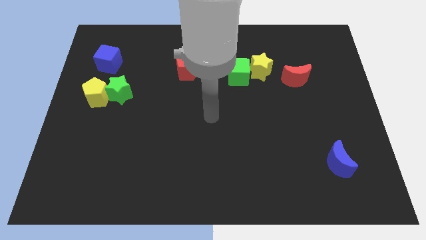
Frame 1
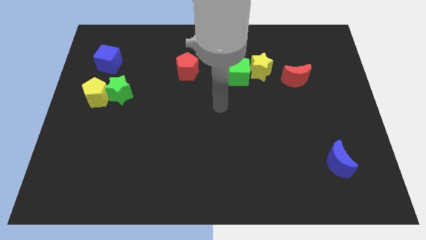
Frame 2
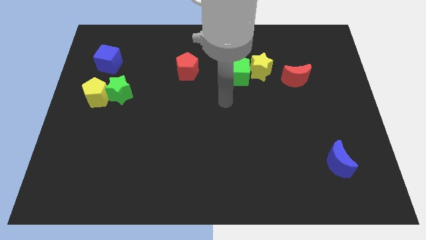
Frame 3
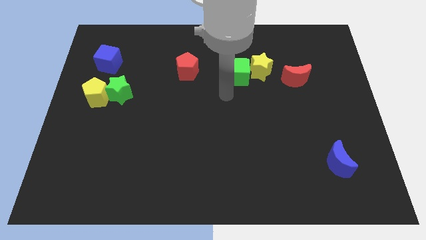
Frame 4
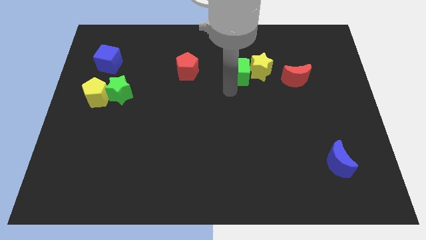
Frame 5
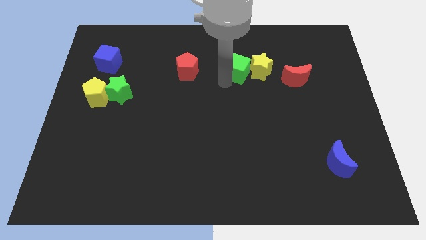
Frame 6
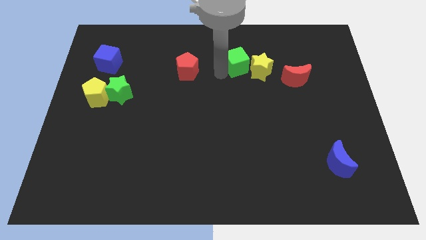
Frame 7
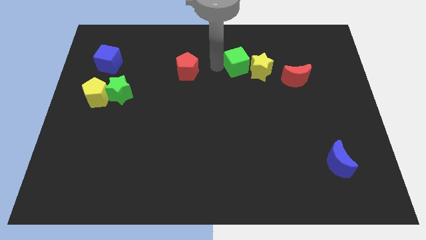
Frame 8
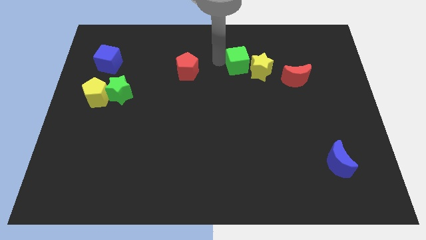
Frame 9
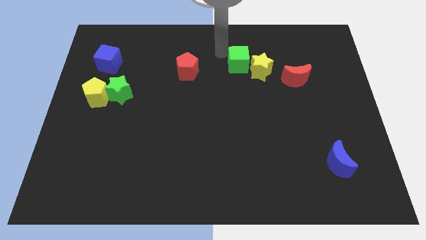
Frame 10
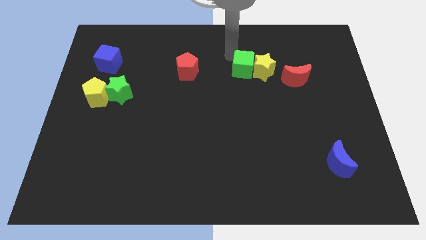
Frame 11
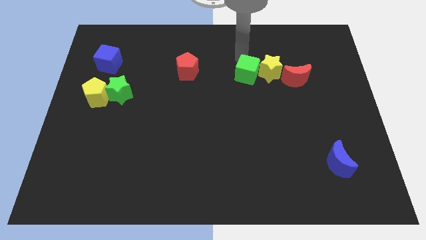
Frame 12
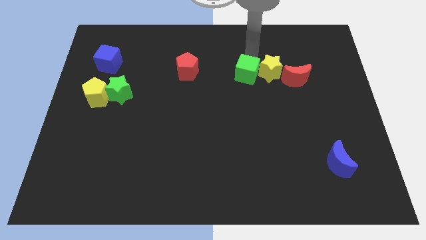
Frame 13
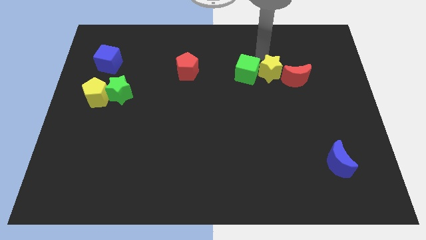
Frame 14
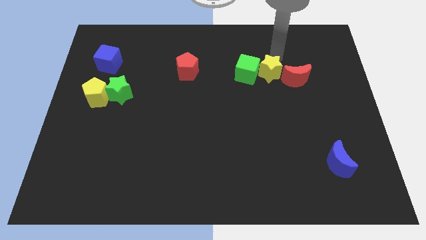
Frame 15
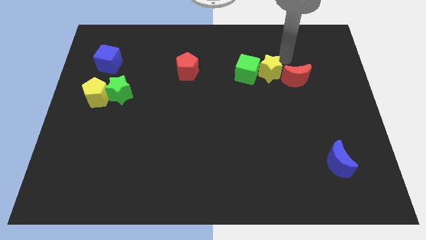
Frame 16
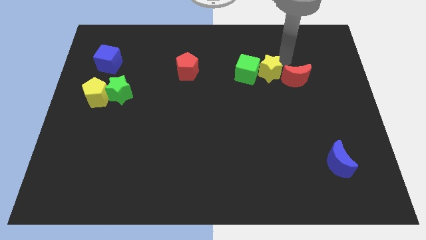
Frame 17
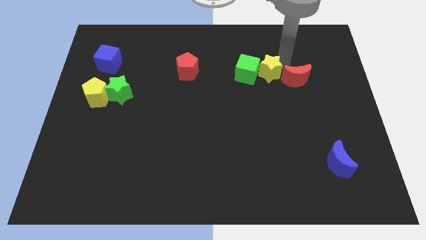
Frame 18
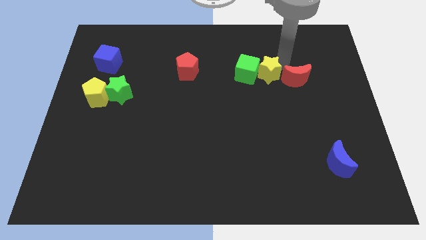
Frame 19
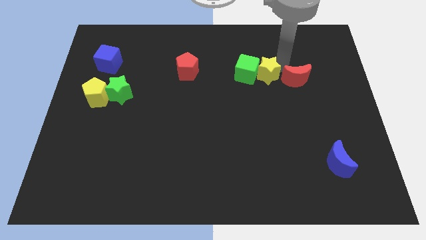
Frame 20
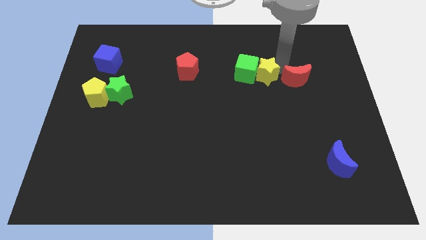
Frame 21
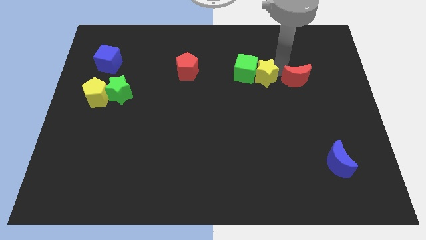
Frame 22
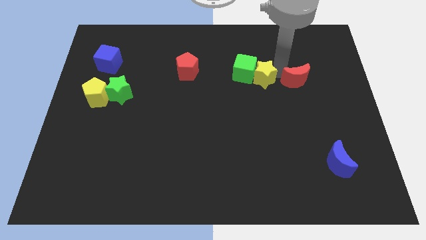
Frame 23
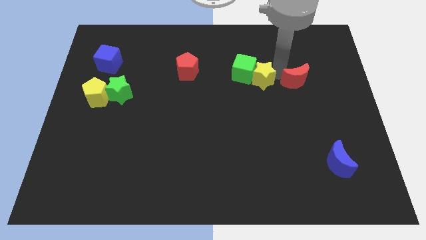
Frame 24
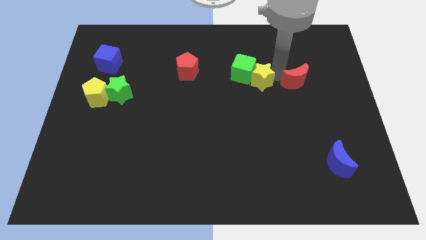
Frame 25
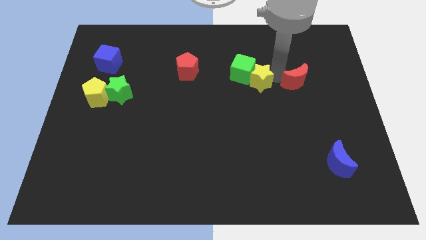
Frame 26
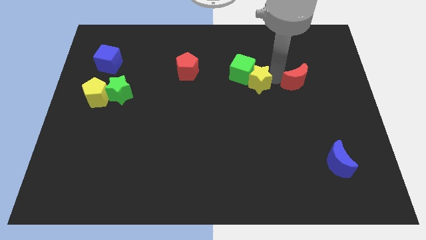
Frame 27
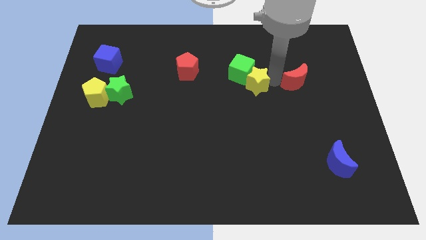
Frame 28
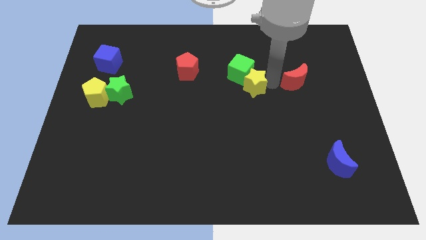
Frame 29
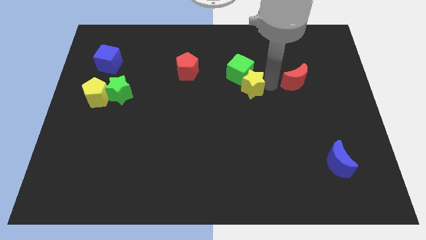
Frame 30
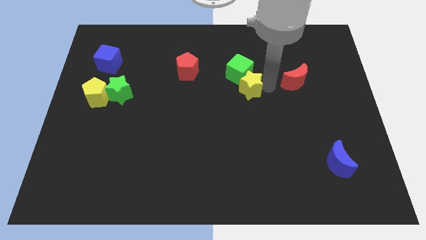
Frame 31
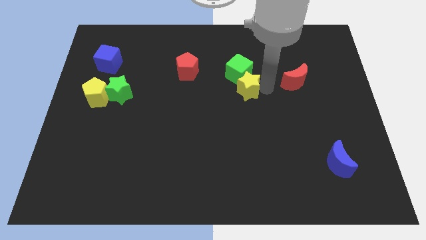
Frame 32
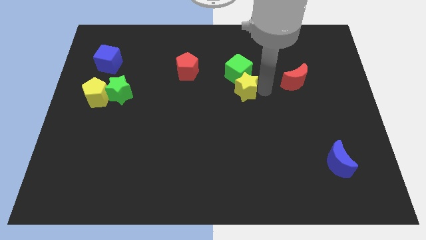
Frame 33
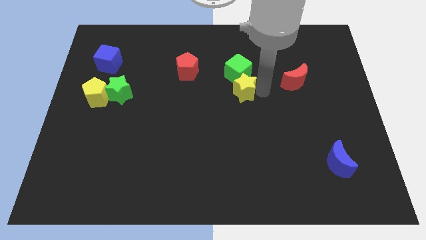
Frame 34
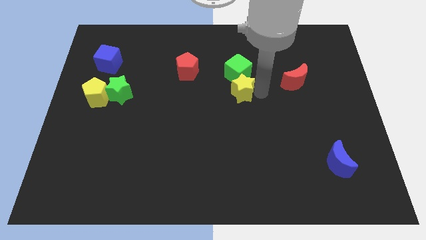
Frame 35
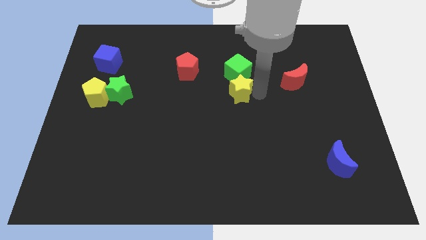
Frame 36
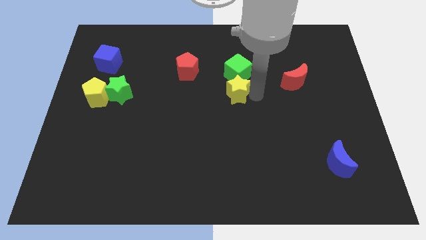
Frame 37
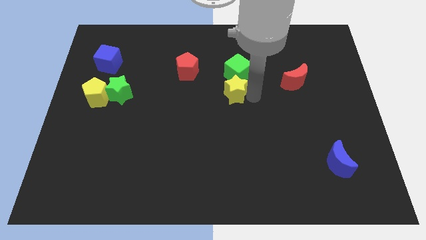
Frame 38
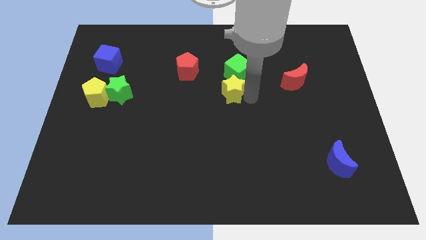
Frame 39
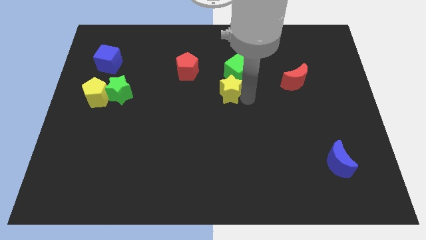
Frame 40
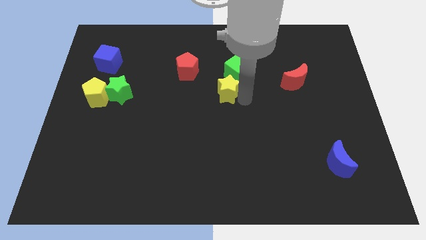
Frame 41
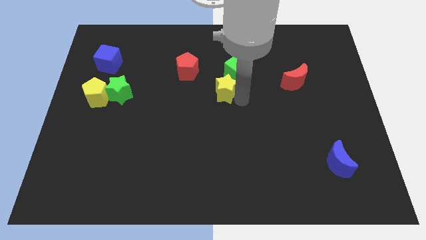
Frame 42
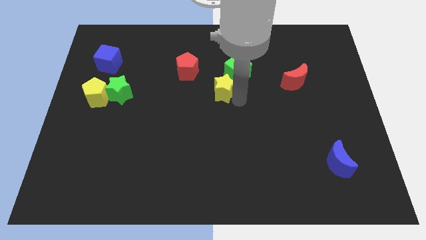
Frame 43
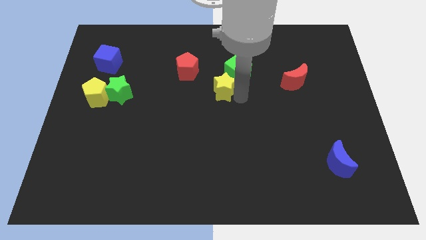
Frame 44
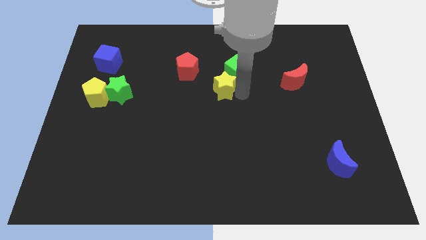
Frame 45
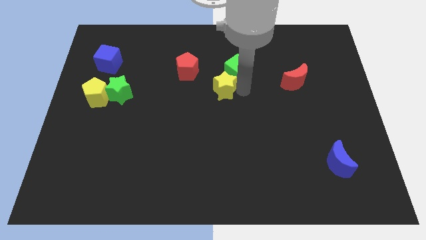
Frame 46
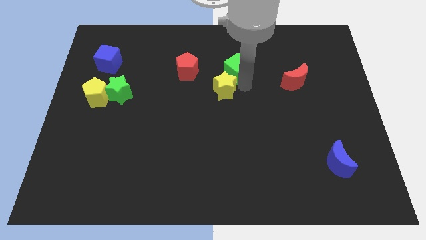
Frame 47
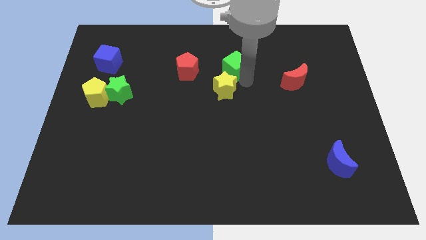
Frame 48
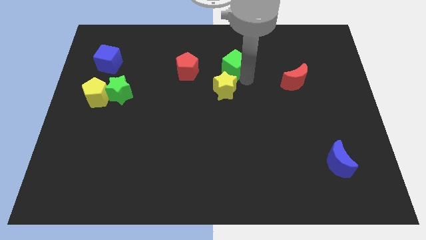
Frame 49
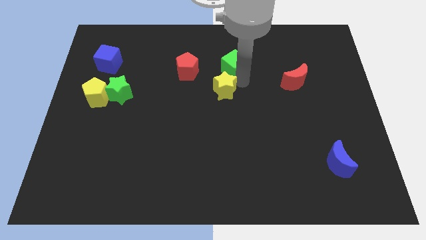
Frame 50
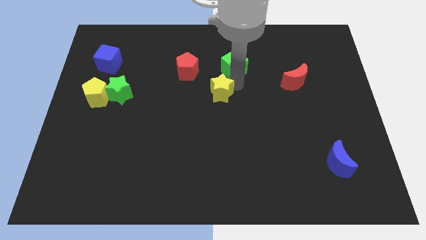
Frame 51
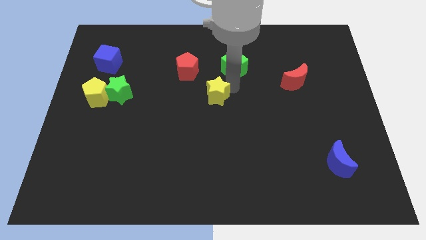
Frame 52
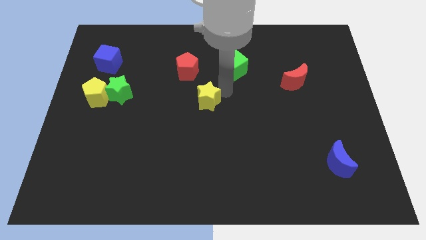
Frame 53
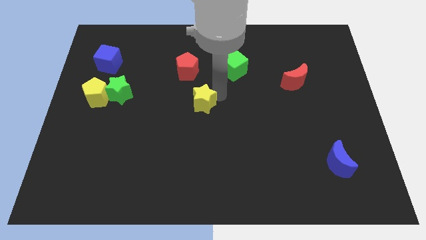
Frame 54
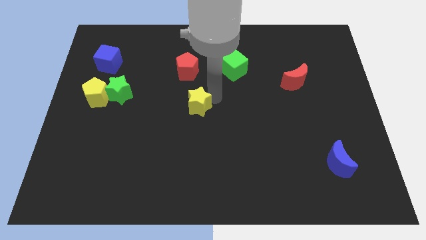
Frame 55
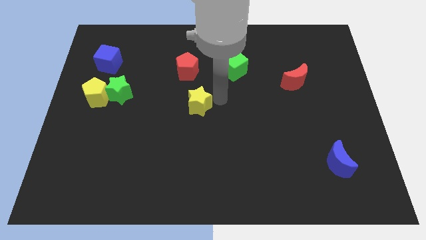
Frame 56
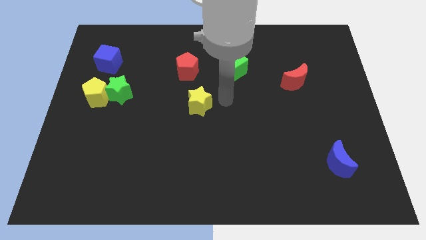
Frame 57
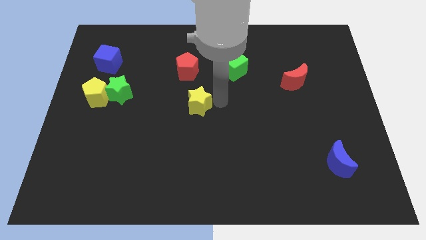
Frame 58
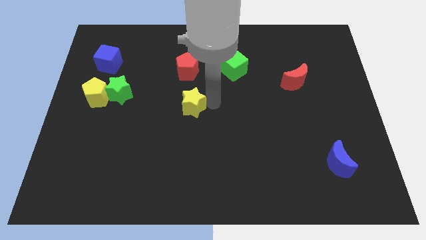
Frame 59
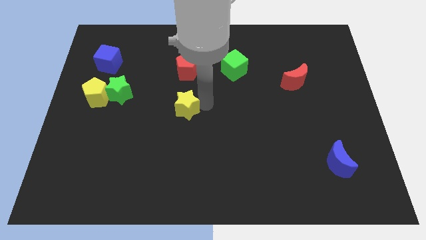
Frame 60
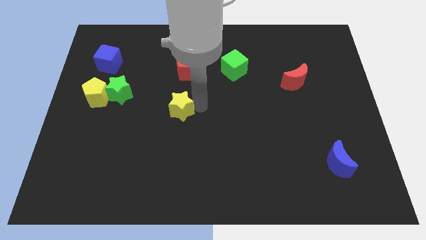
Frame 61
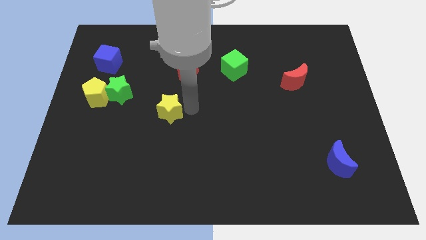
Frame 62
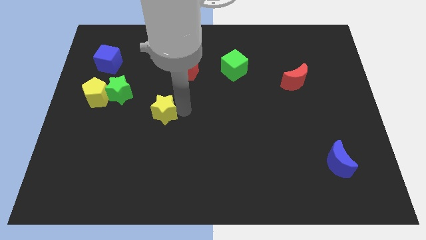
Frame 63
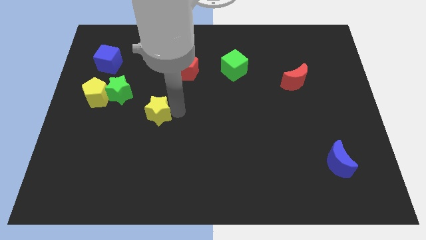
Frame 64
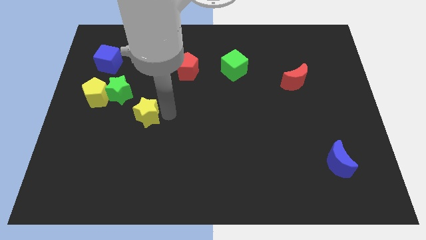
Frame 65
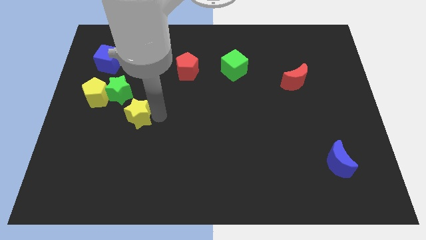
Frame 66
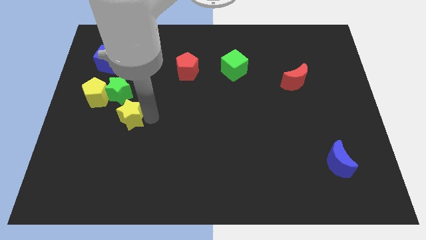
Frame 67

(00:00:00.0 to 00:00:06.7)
push the yellow star to the bottom right side of the yellow pentagon

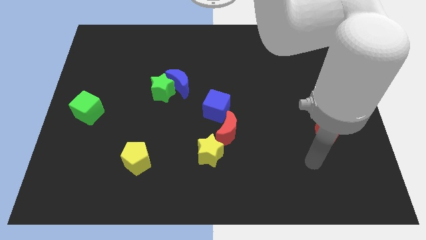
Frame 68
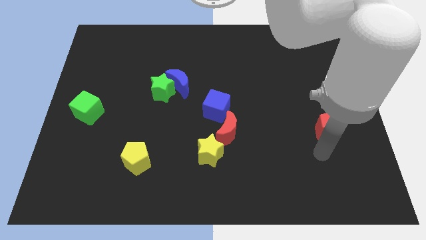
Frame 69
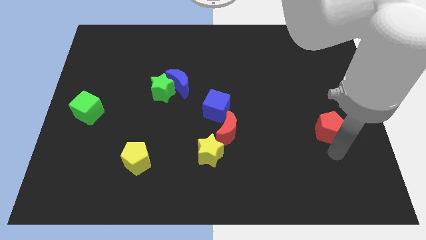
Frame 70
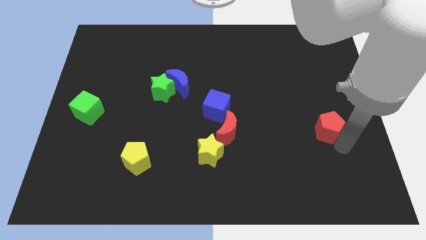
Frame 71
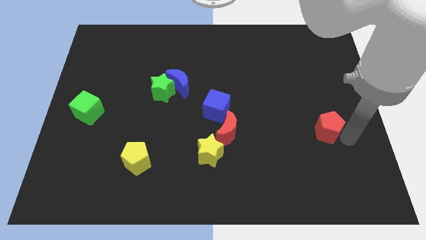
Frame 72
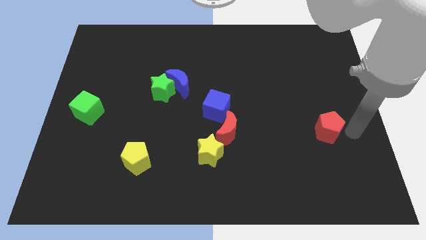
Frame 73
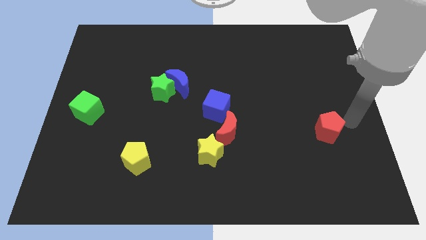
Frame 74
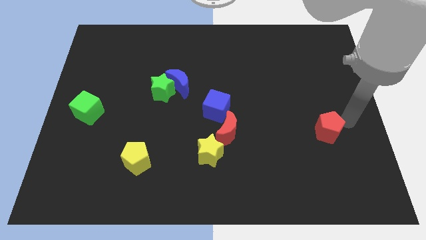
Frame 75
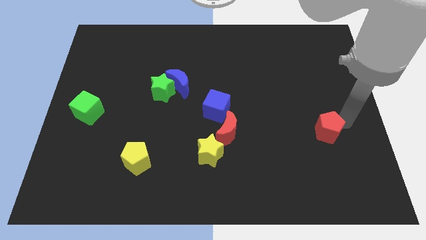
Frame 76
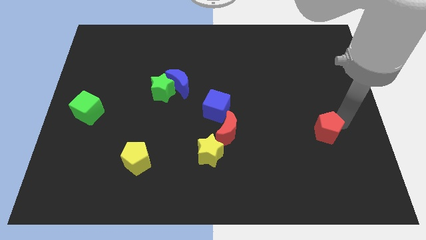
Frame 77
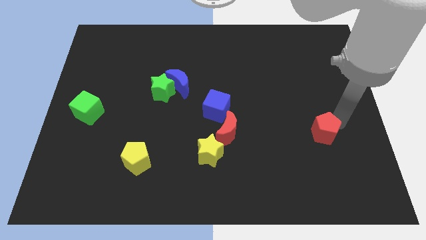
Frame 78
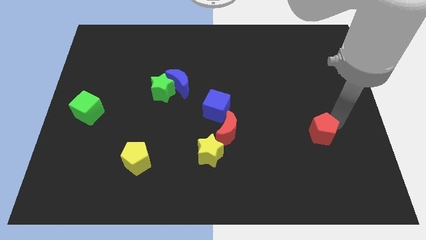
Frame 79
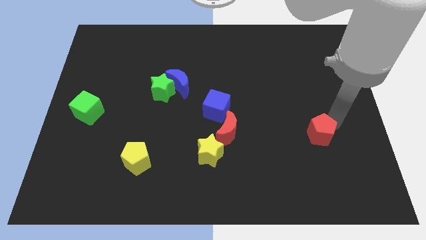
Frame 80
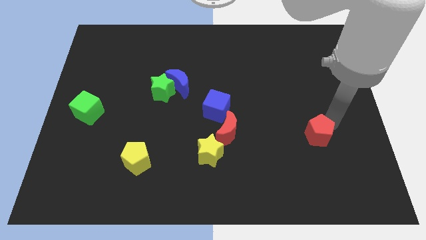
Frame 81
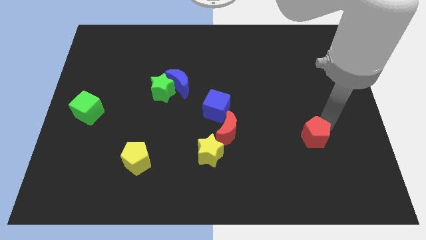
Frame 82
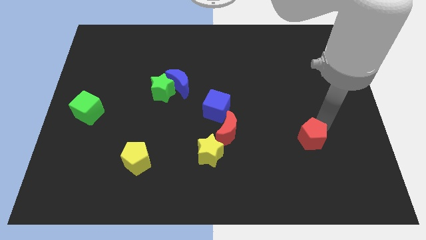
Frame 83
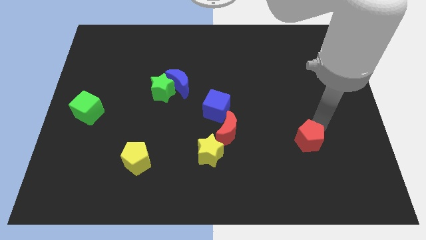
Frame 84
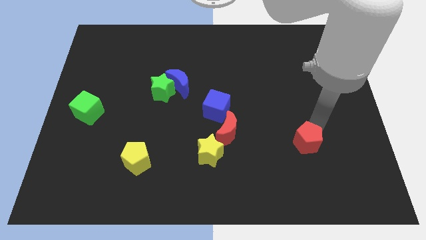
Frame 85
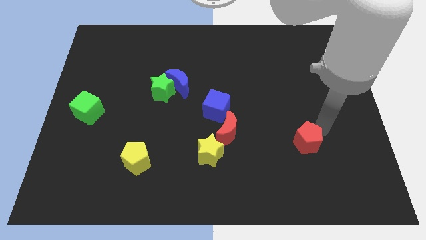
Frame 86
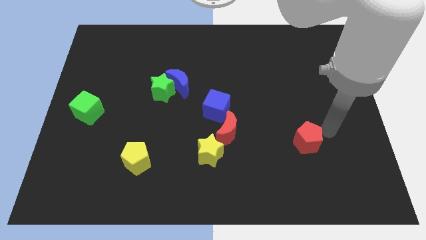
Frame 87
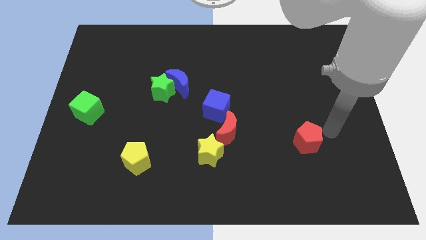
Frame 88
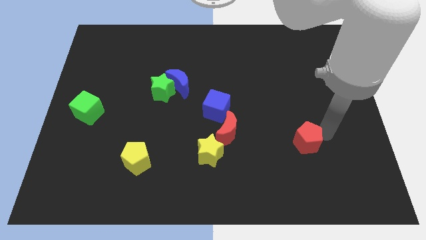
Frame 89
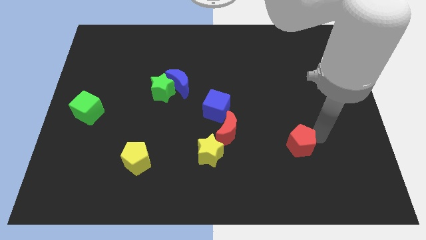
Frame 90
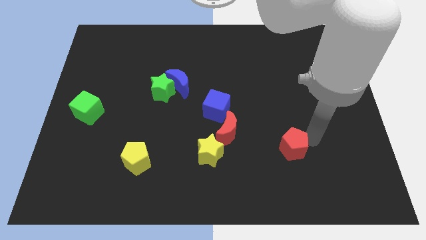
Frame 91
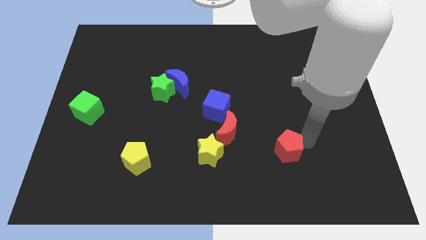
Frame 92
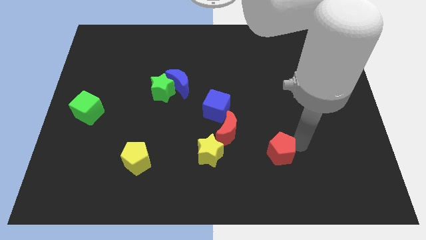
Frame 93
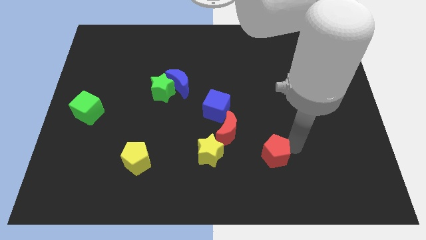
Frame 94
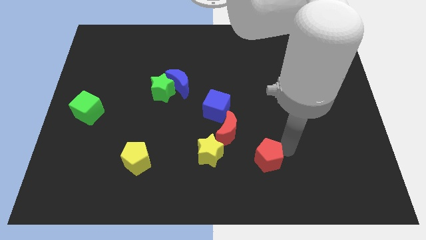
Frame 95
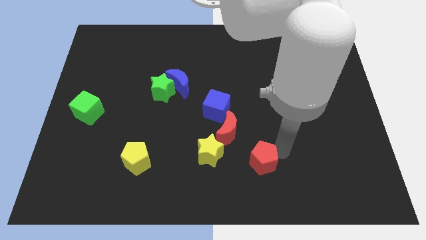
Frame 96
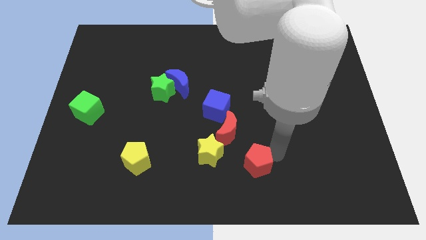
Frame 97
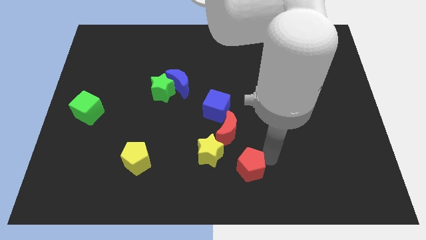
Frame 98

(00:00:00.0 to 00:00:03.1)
push the red pentagon below the red moon
